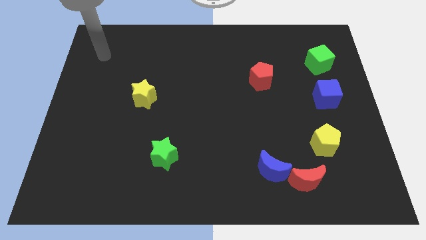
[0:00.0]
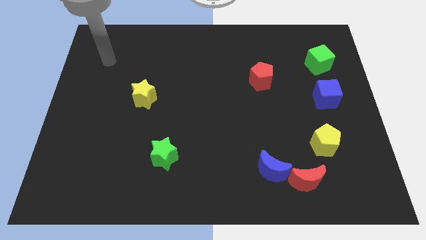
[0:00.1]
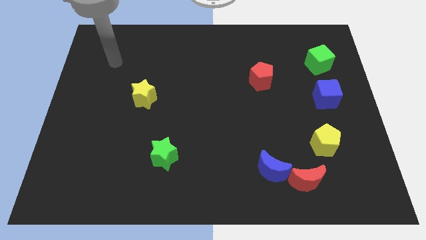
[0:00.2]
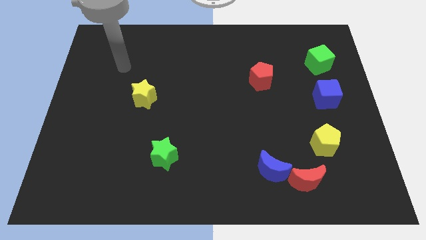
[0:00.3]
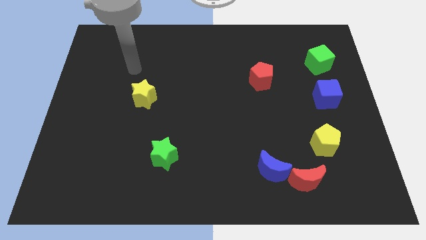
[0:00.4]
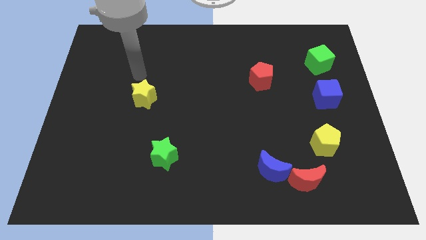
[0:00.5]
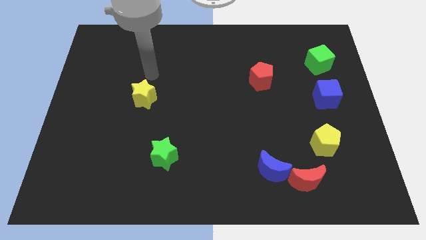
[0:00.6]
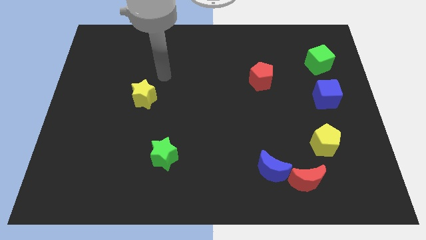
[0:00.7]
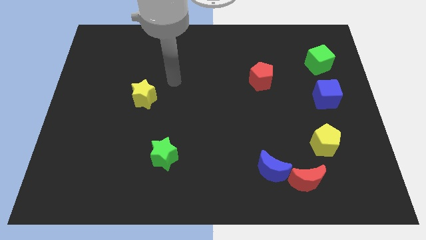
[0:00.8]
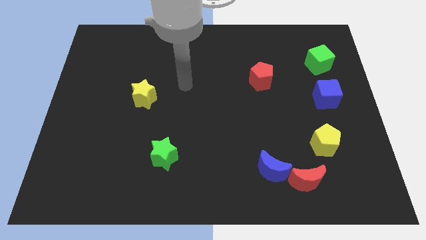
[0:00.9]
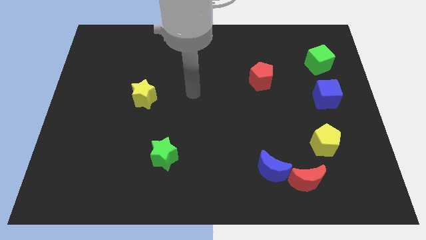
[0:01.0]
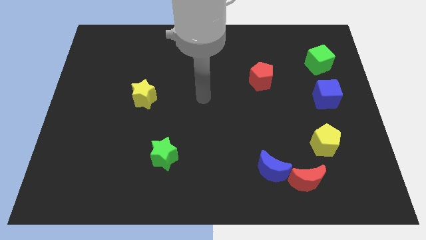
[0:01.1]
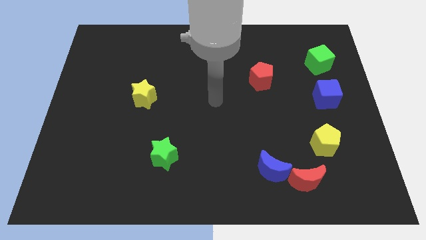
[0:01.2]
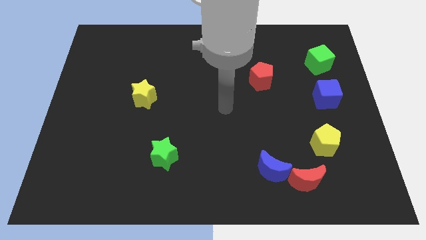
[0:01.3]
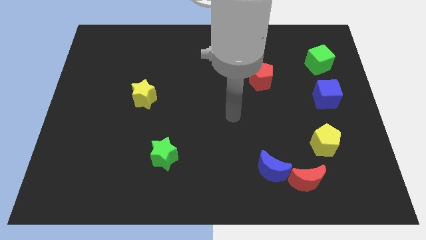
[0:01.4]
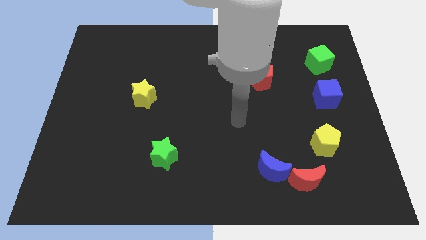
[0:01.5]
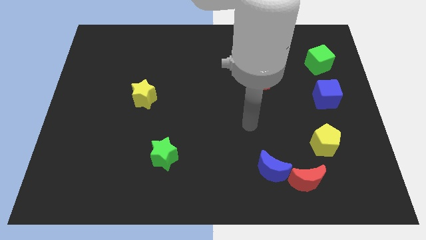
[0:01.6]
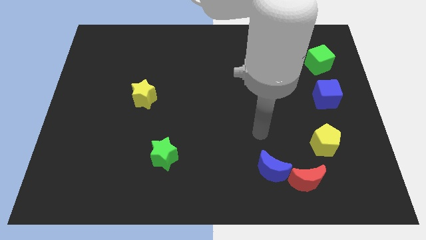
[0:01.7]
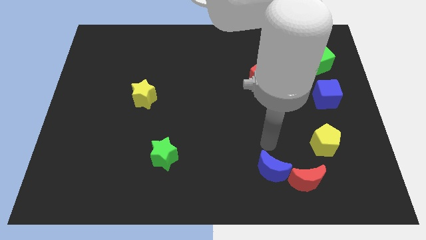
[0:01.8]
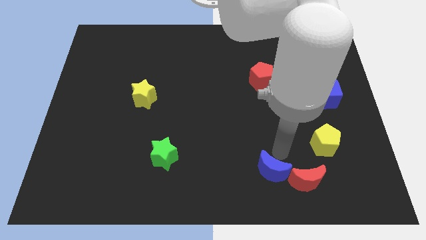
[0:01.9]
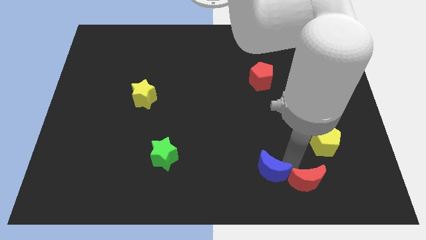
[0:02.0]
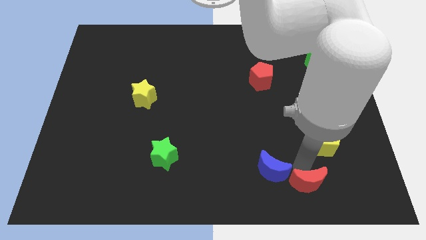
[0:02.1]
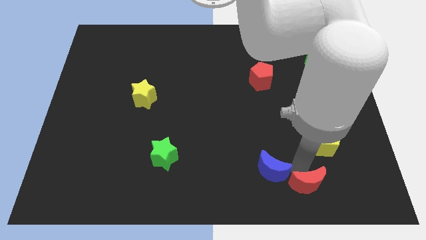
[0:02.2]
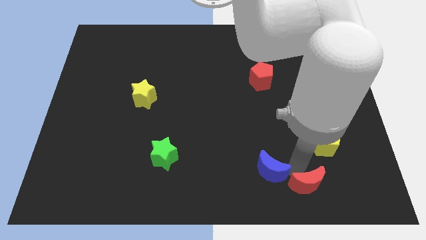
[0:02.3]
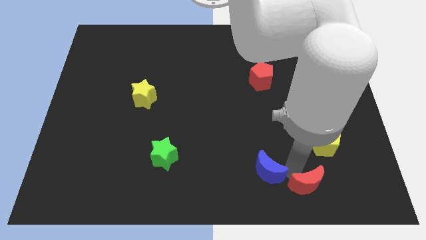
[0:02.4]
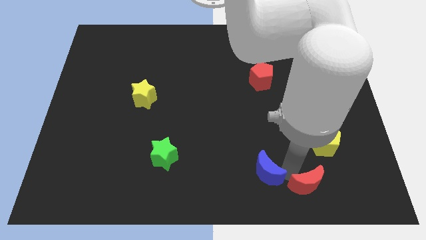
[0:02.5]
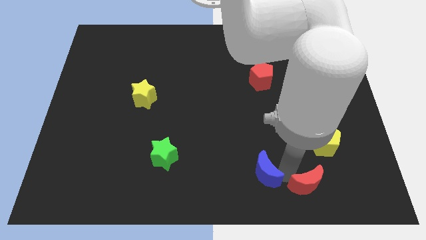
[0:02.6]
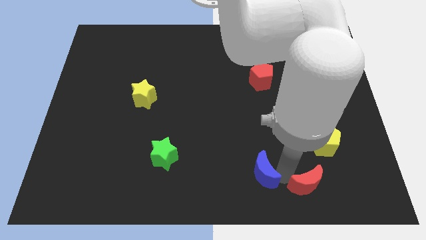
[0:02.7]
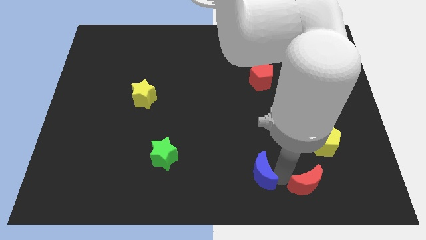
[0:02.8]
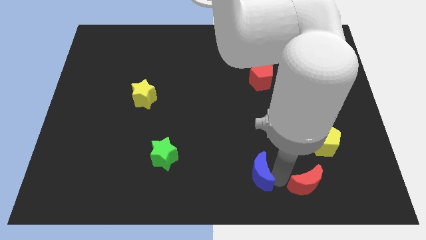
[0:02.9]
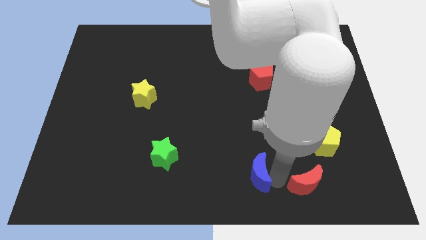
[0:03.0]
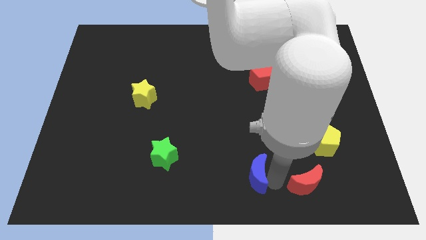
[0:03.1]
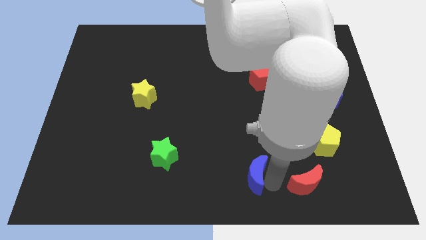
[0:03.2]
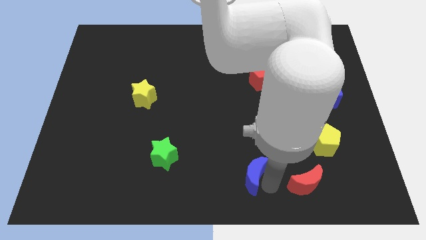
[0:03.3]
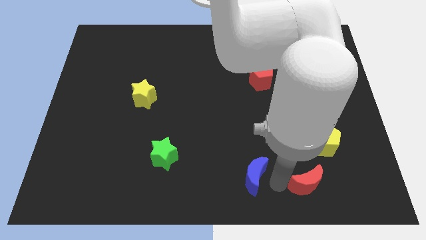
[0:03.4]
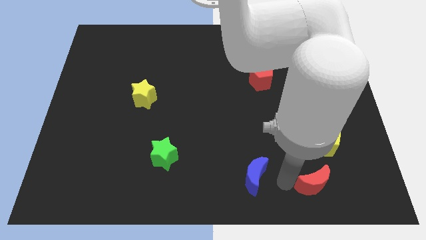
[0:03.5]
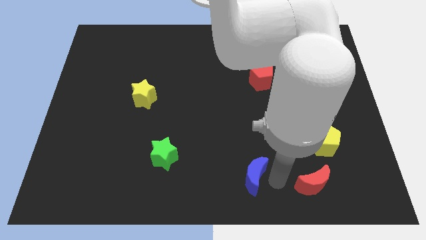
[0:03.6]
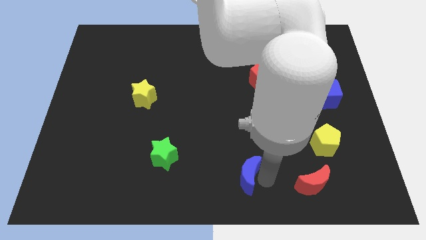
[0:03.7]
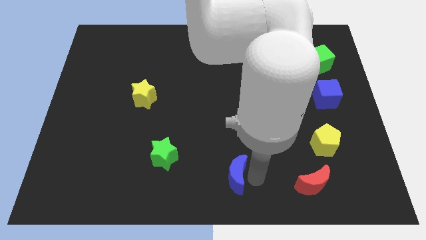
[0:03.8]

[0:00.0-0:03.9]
slide the blue moon a little bit to the left

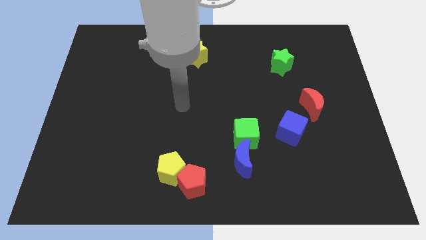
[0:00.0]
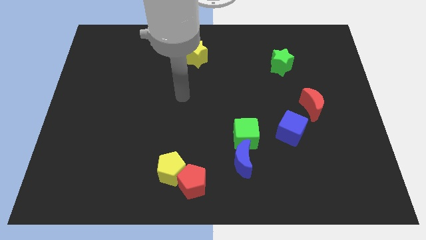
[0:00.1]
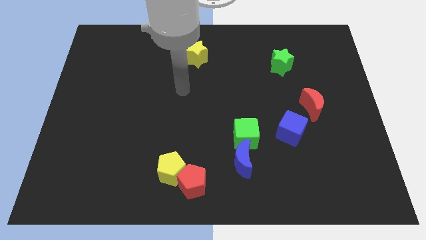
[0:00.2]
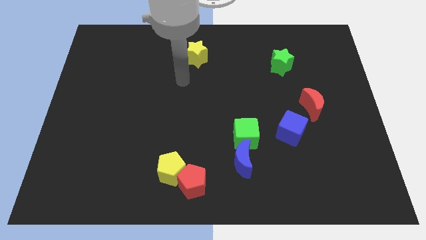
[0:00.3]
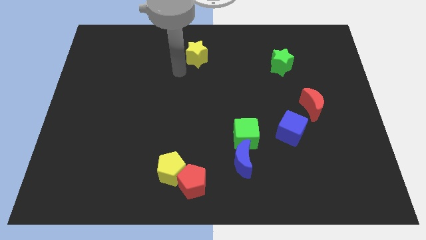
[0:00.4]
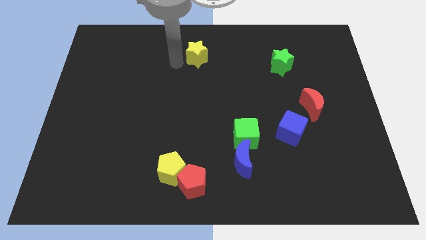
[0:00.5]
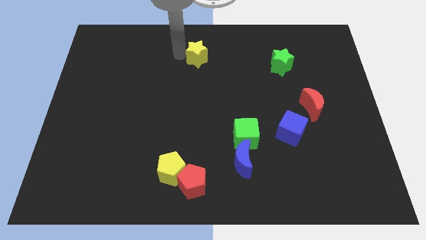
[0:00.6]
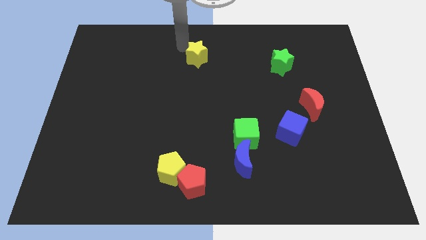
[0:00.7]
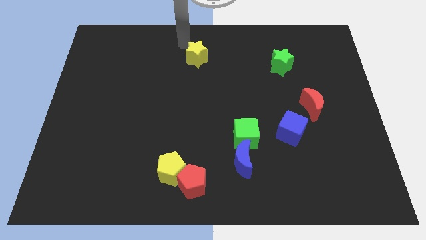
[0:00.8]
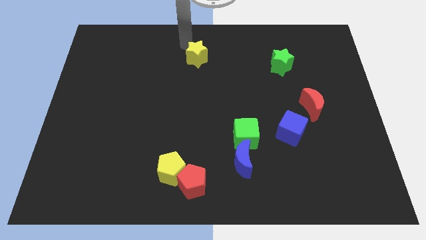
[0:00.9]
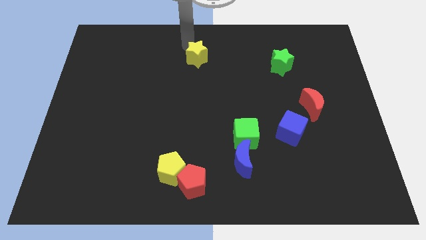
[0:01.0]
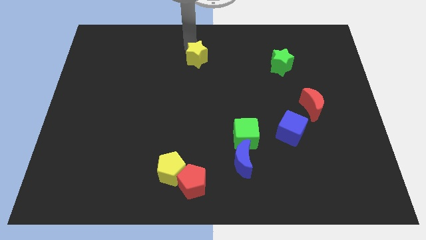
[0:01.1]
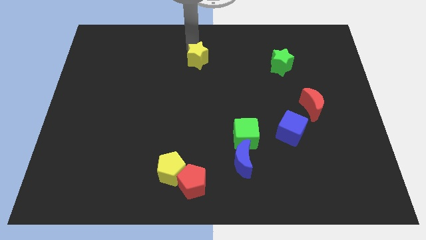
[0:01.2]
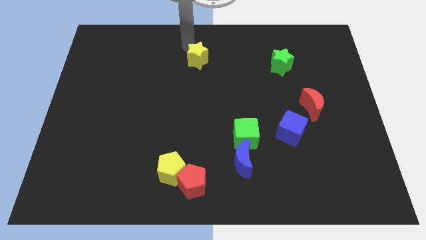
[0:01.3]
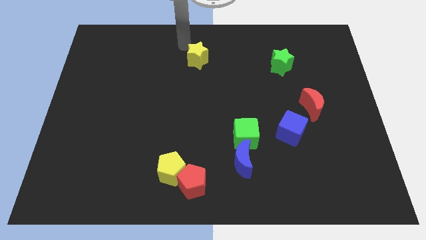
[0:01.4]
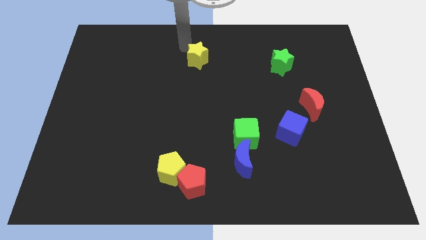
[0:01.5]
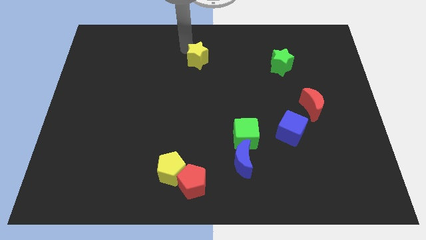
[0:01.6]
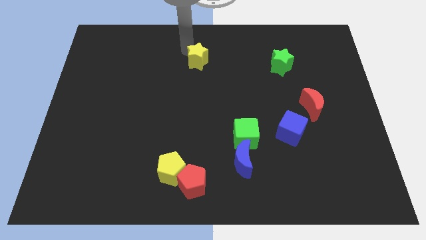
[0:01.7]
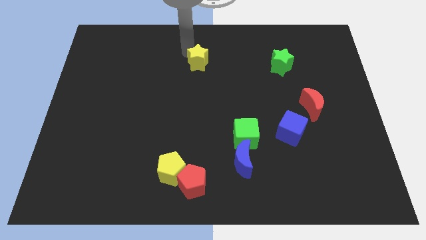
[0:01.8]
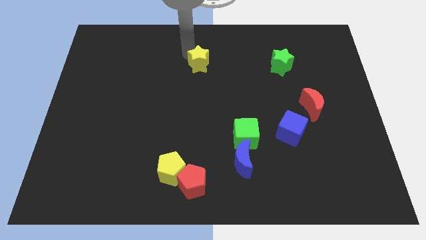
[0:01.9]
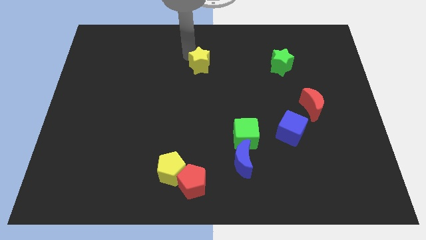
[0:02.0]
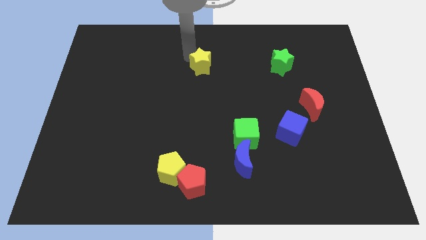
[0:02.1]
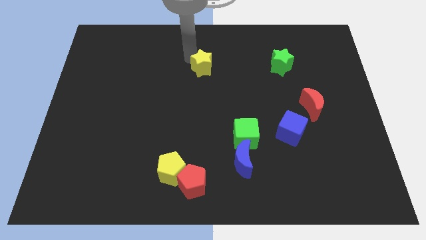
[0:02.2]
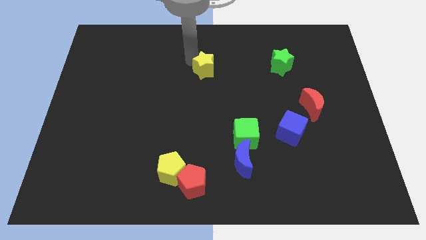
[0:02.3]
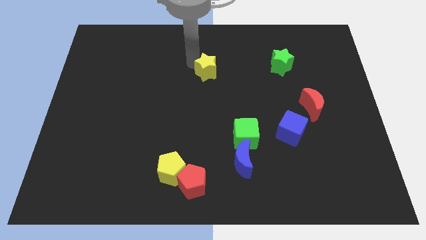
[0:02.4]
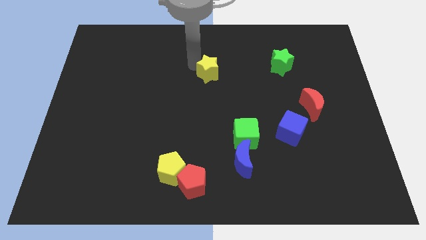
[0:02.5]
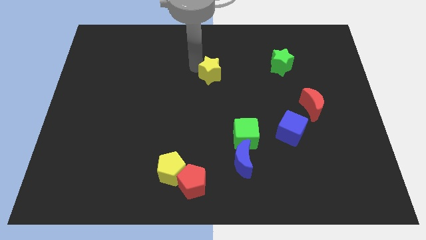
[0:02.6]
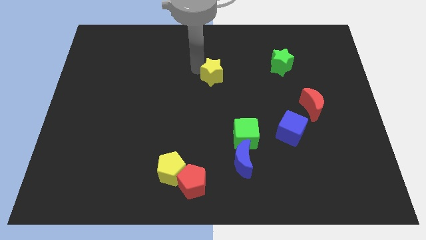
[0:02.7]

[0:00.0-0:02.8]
move the yellow star diagonally downwards and to the right a little

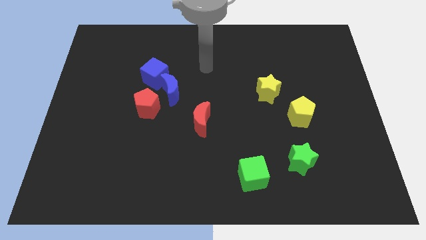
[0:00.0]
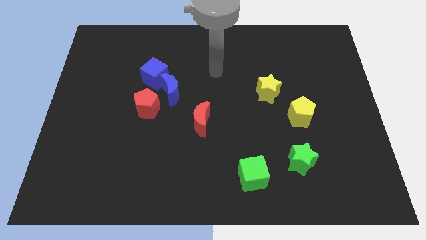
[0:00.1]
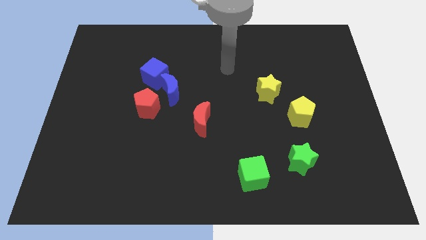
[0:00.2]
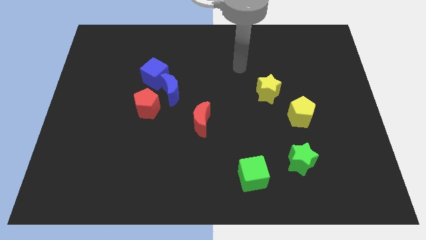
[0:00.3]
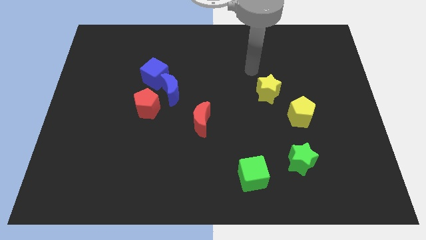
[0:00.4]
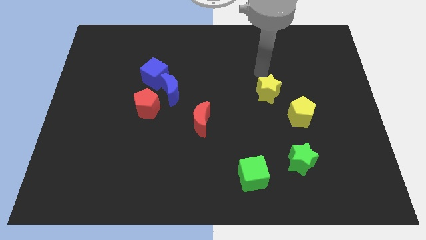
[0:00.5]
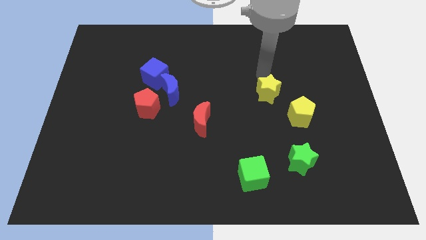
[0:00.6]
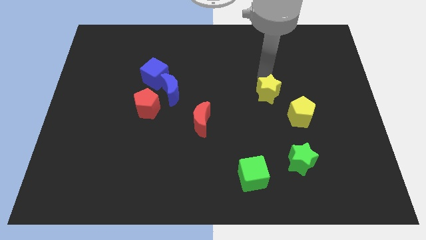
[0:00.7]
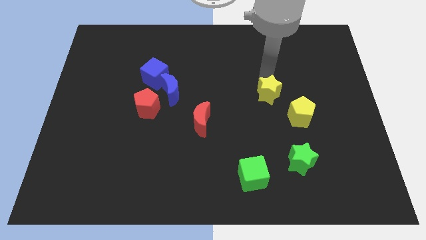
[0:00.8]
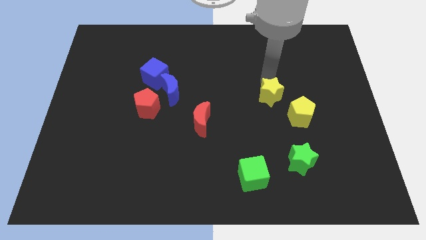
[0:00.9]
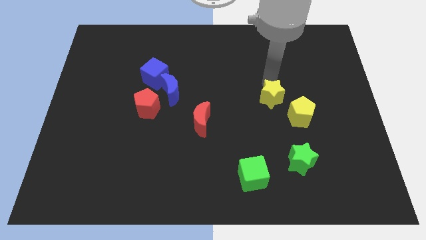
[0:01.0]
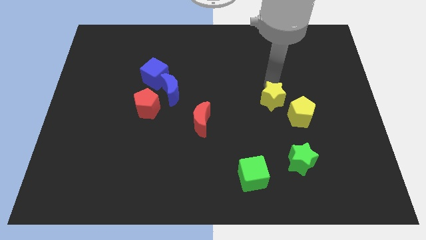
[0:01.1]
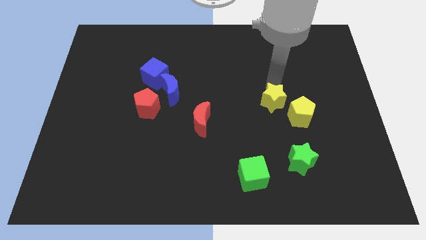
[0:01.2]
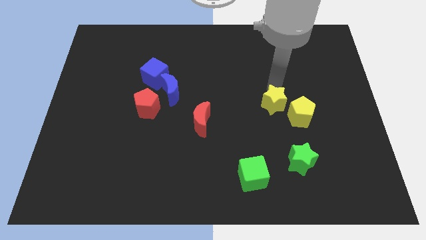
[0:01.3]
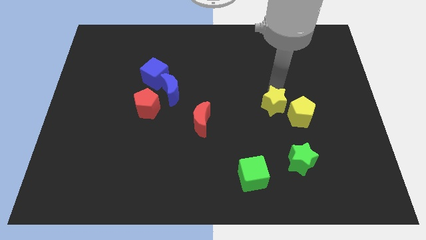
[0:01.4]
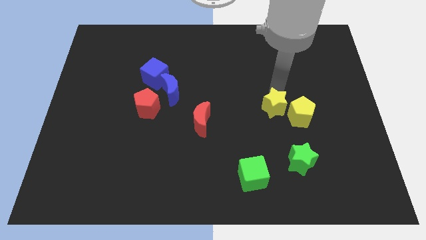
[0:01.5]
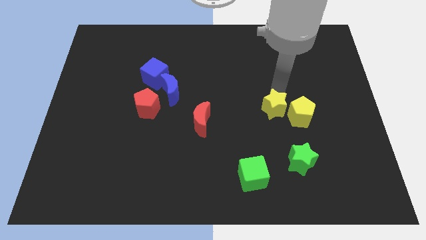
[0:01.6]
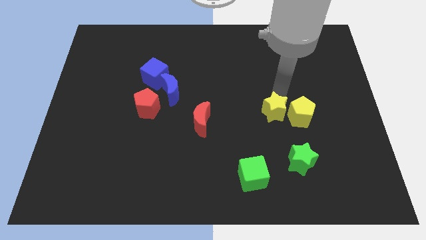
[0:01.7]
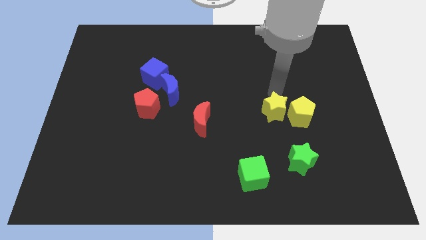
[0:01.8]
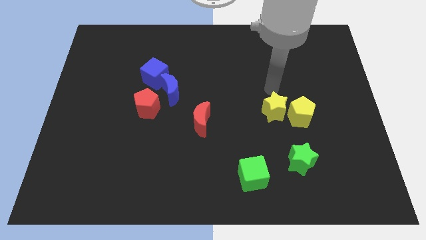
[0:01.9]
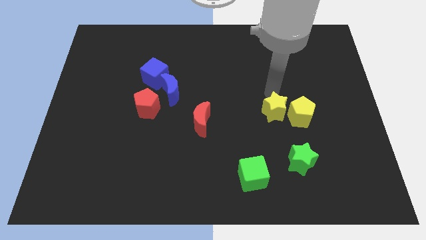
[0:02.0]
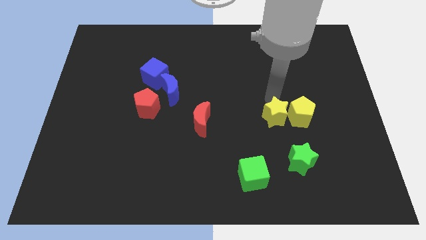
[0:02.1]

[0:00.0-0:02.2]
slightly slide the yellow star down
